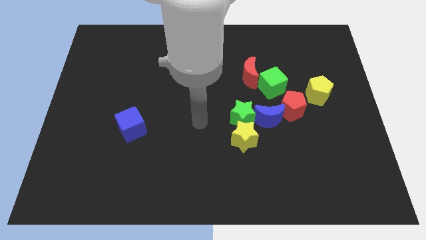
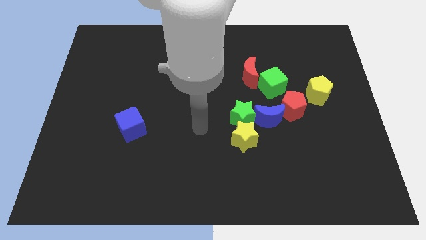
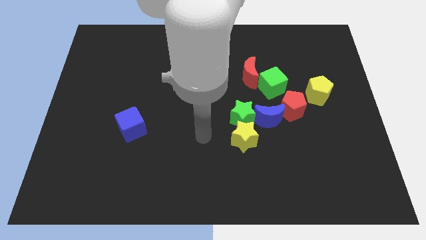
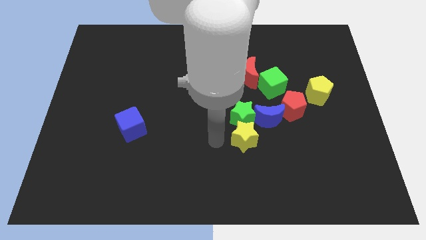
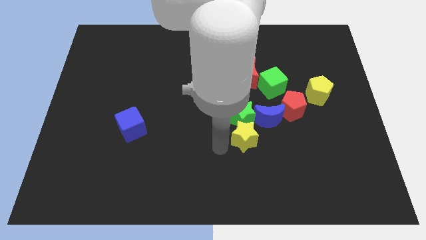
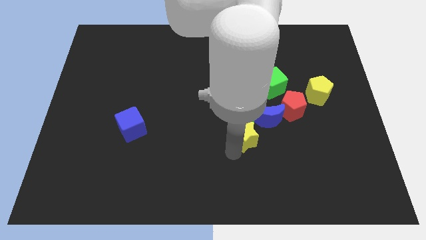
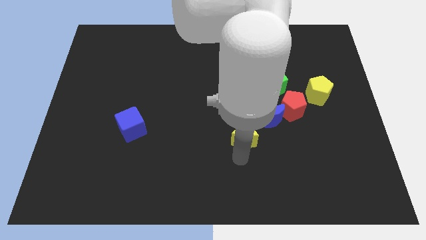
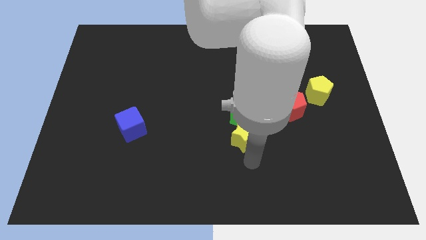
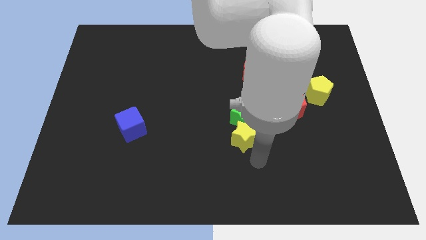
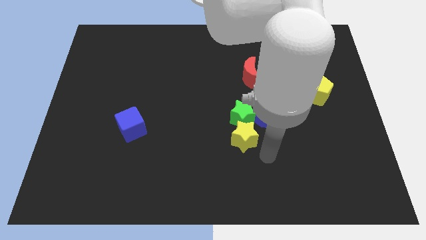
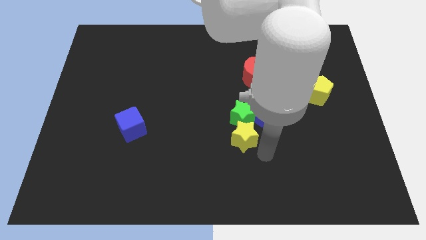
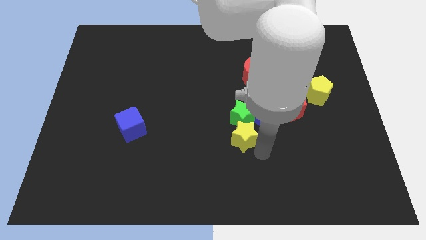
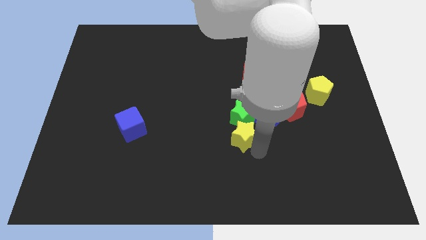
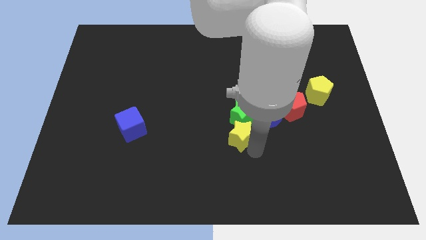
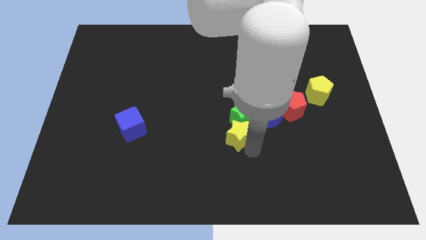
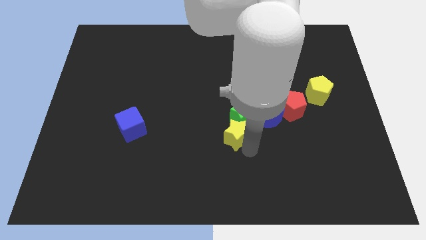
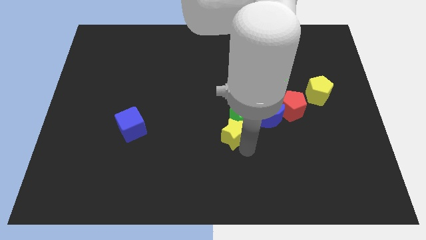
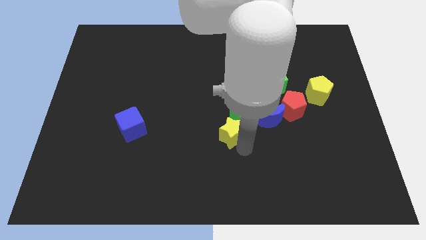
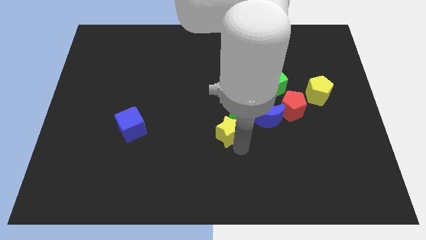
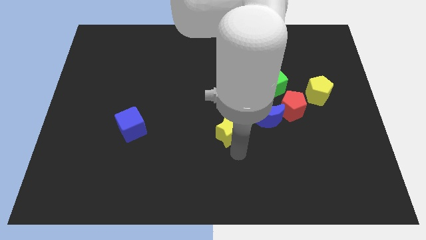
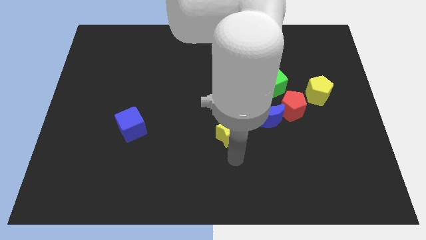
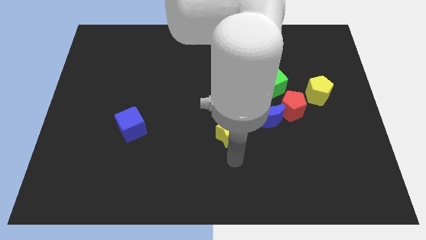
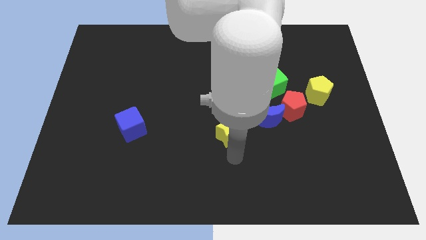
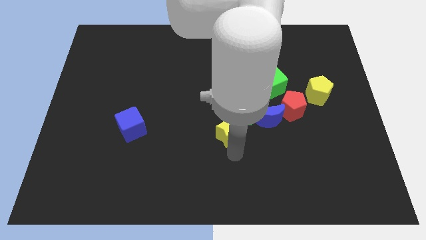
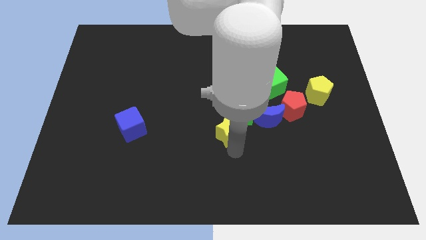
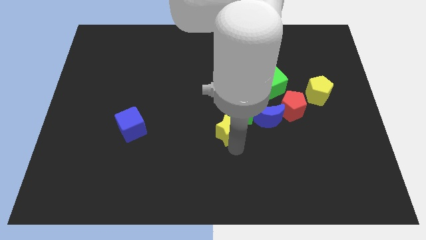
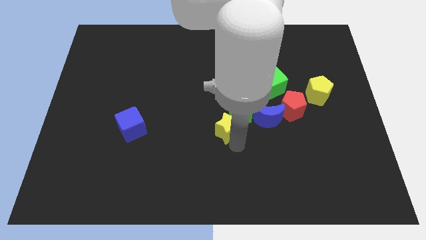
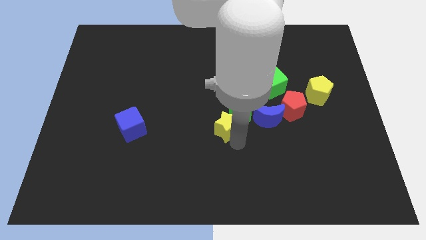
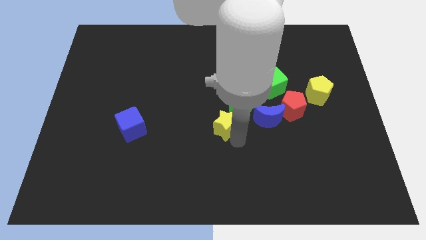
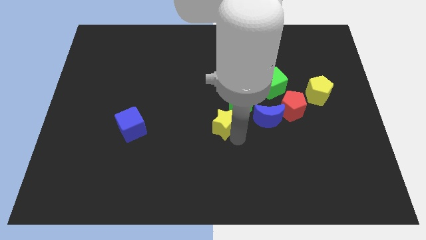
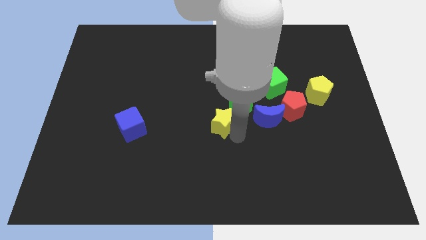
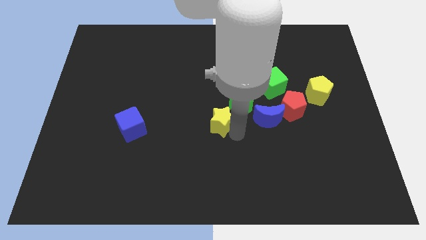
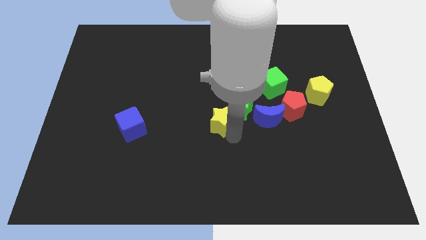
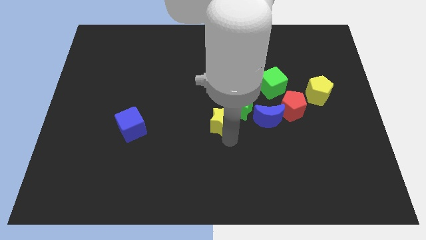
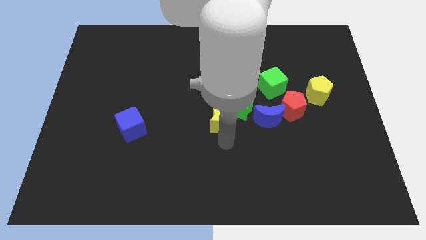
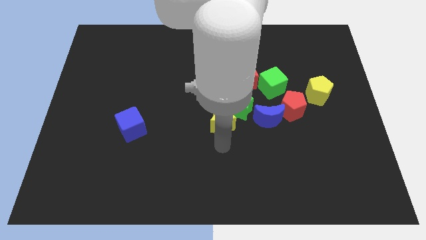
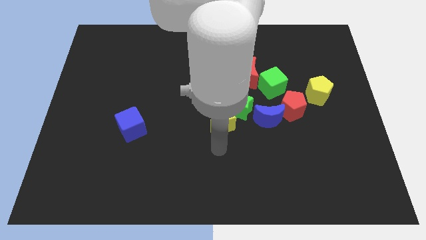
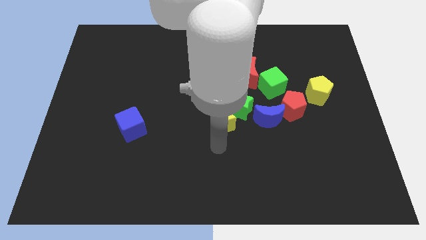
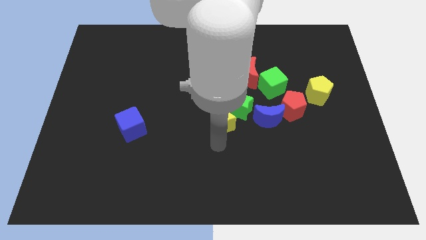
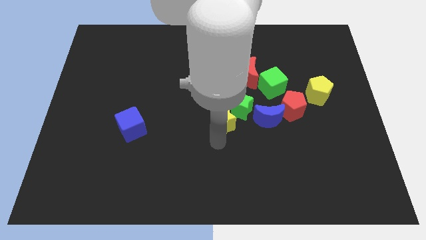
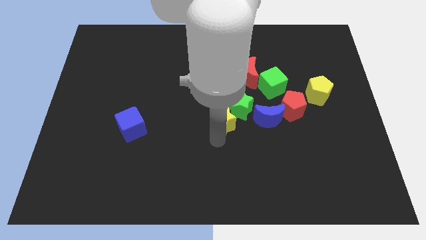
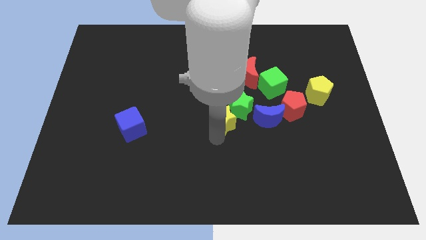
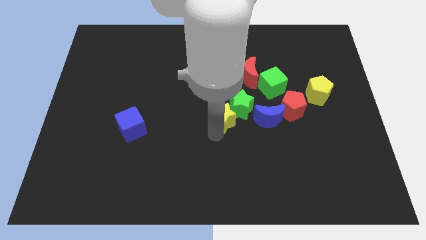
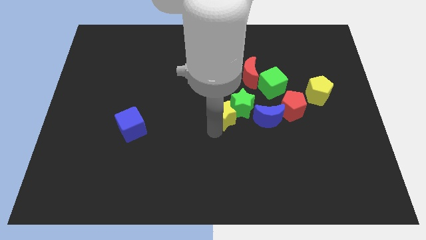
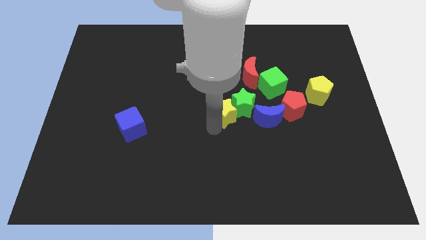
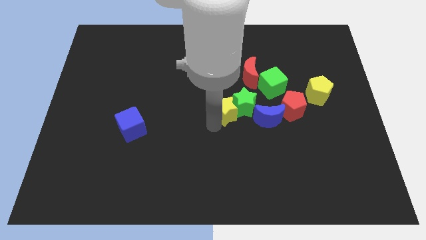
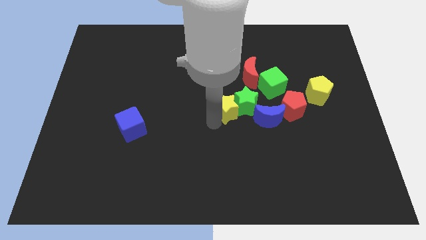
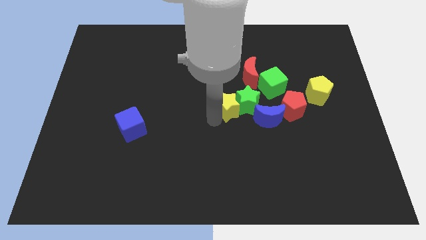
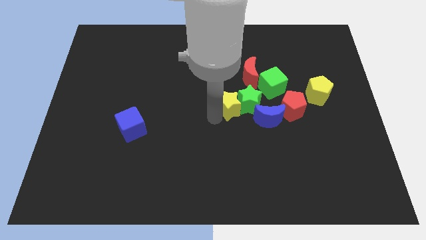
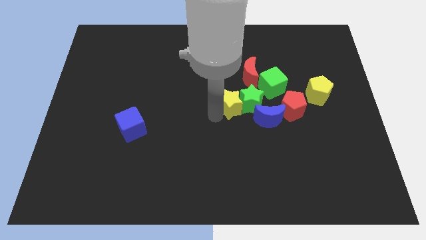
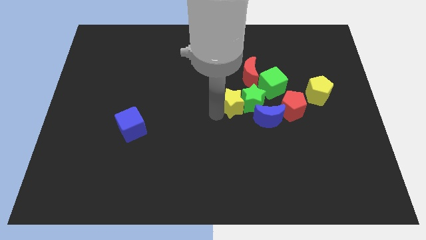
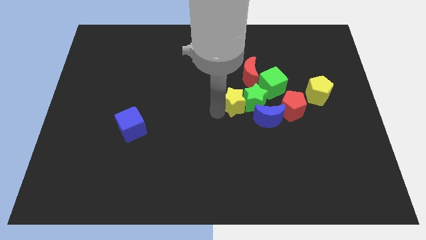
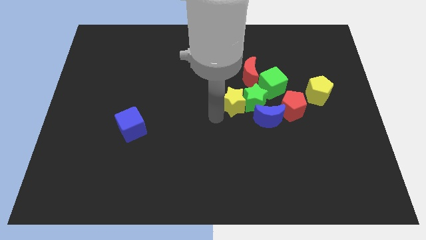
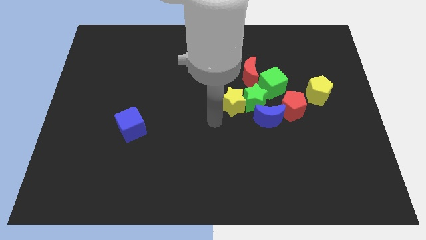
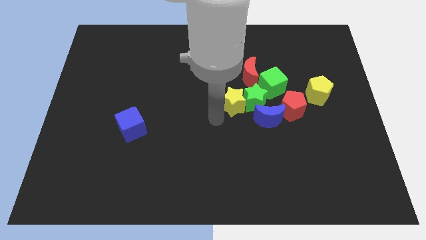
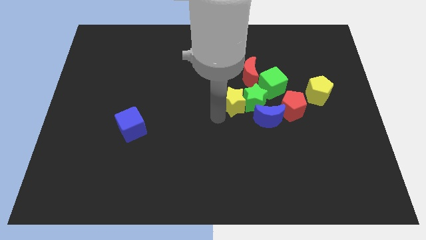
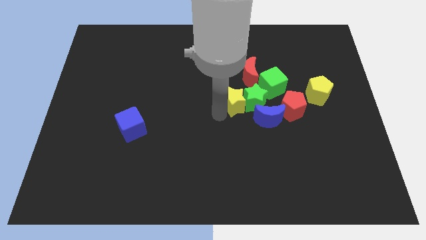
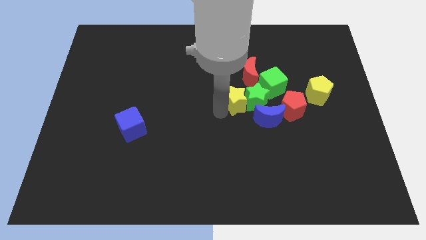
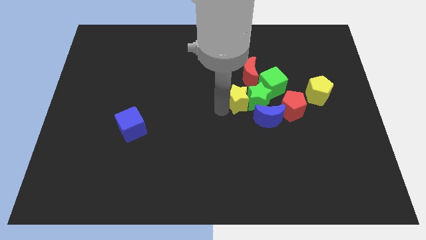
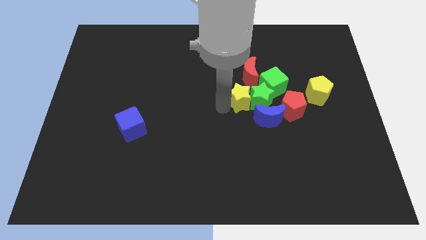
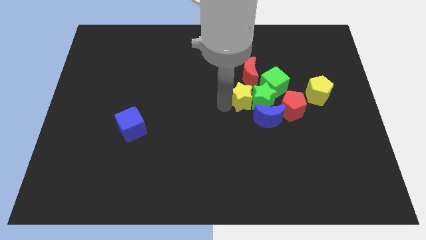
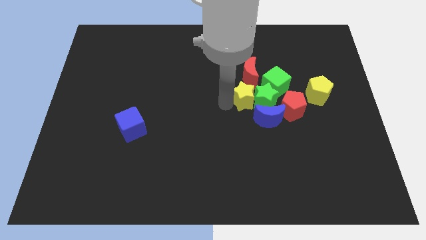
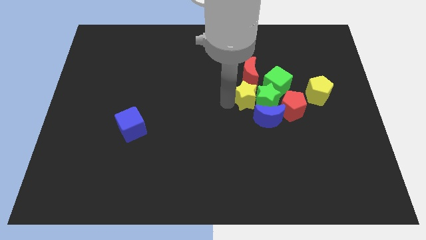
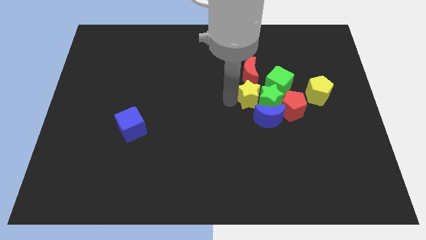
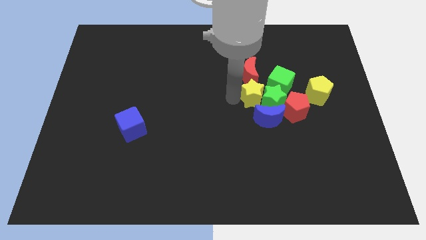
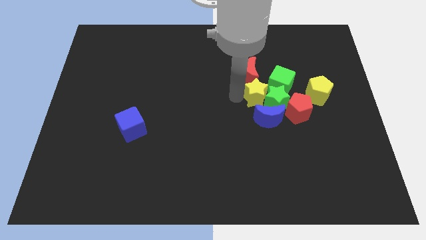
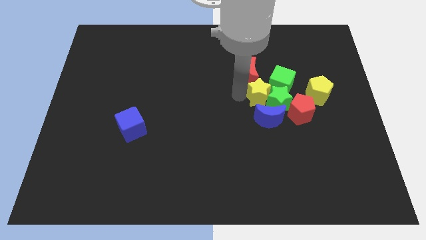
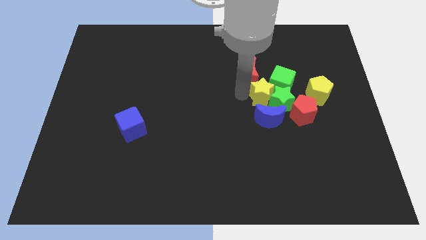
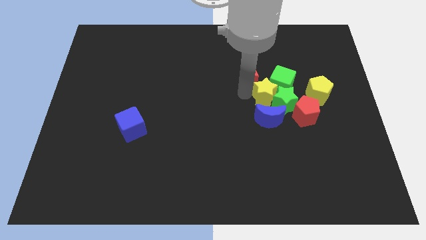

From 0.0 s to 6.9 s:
push the yellow star next to the green cube

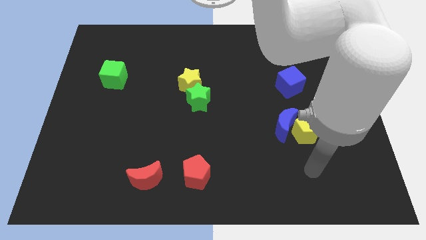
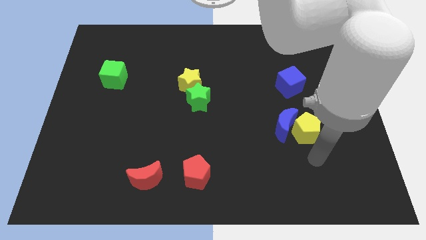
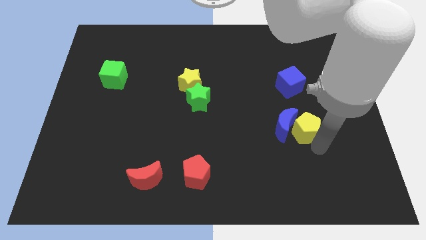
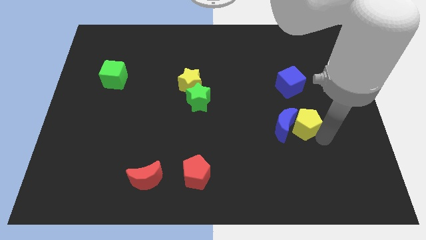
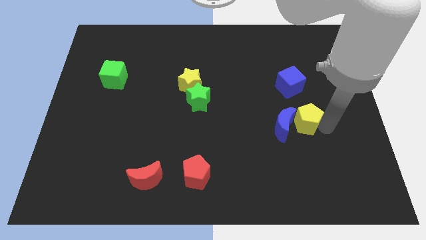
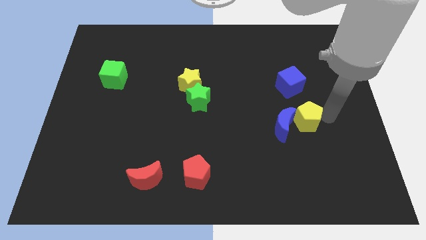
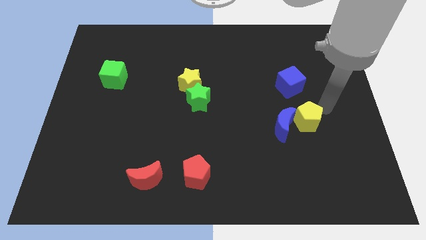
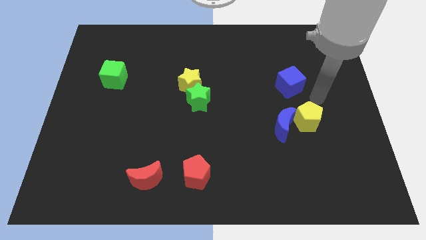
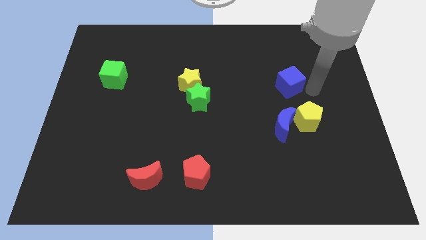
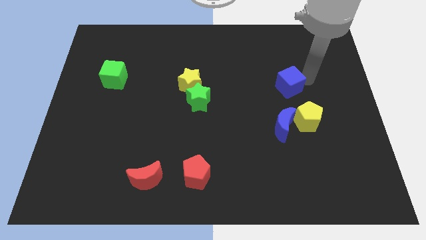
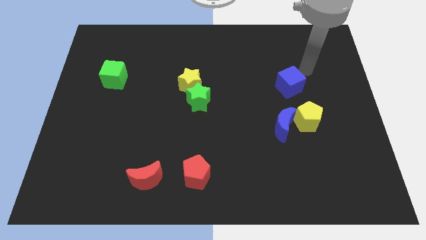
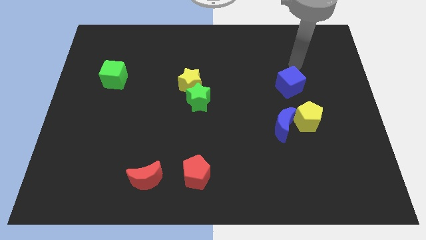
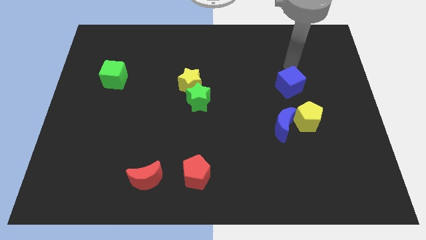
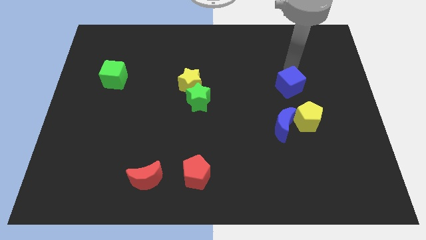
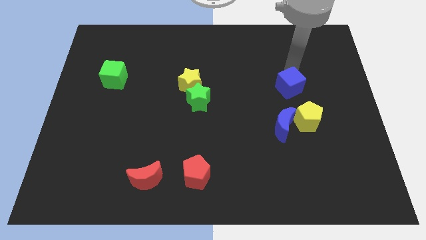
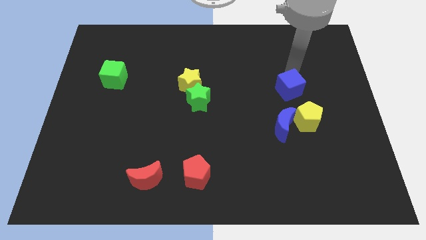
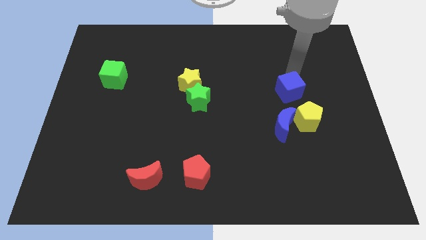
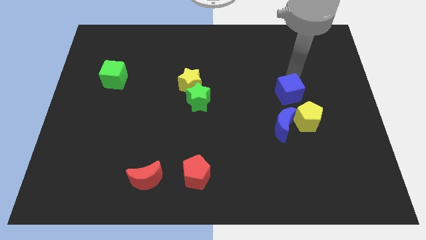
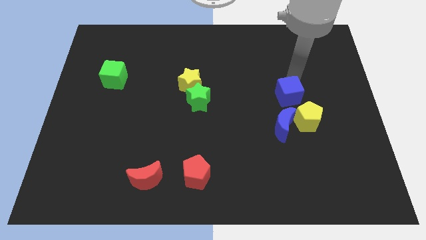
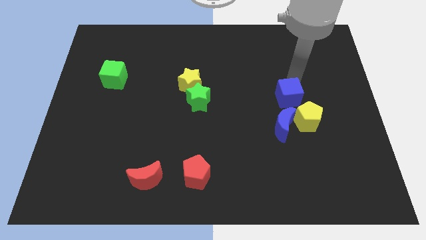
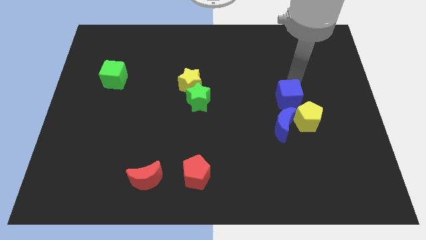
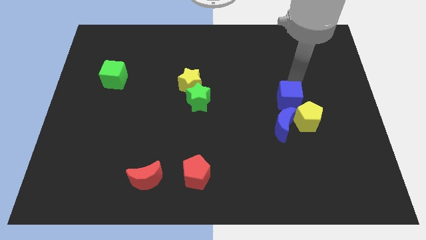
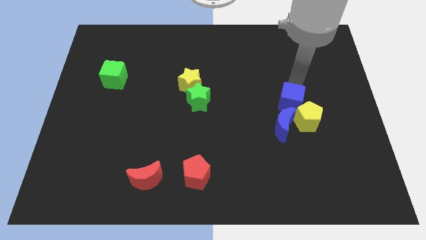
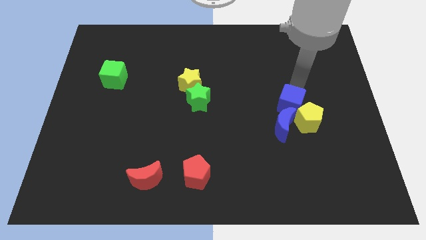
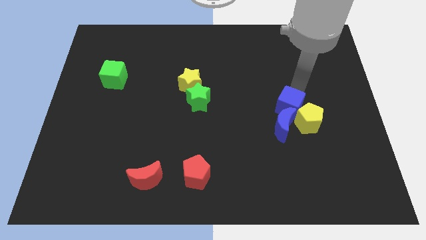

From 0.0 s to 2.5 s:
move the blue cube next to the blue moon
